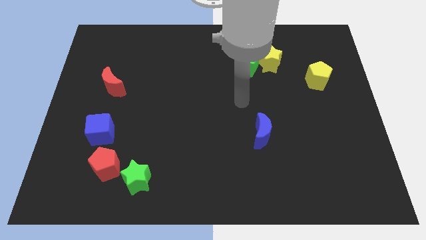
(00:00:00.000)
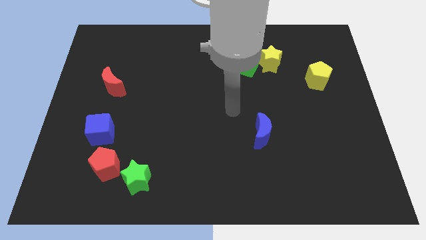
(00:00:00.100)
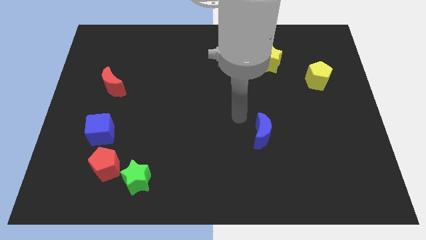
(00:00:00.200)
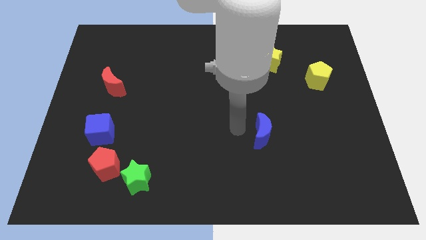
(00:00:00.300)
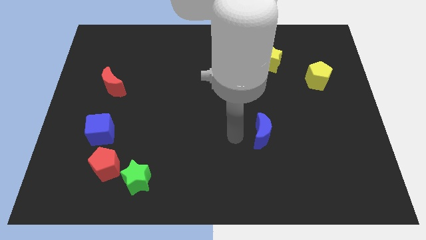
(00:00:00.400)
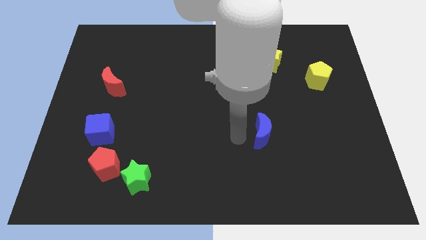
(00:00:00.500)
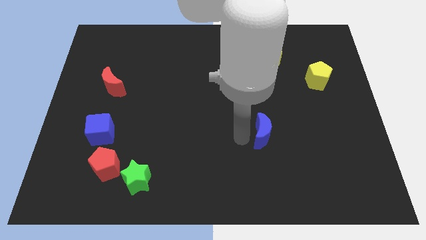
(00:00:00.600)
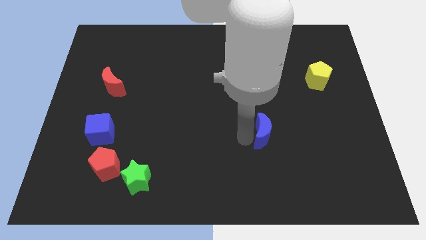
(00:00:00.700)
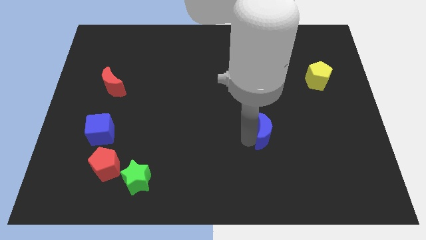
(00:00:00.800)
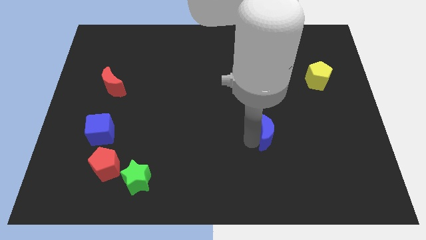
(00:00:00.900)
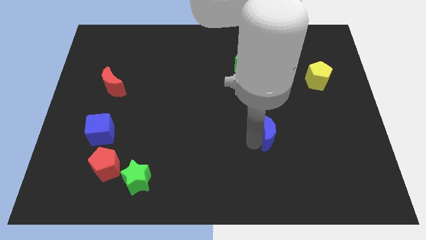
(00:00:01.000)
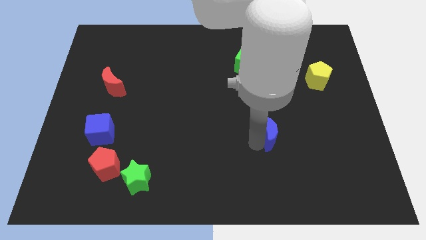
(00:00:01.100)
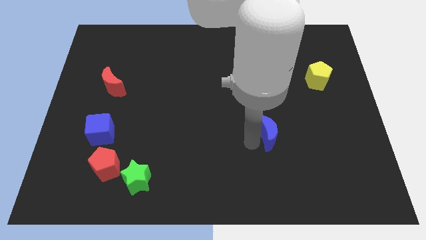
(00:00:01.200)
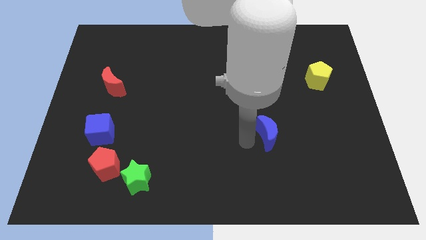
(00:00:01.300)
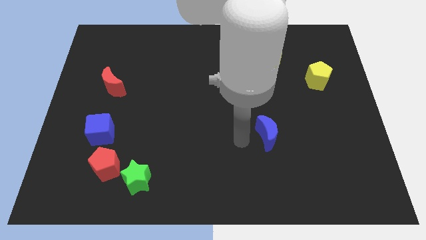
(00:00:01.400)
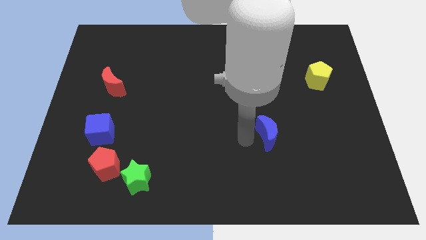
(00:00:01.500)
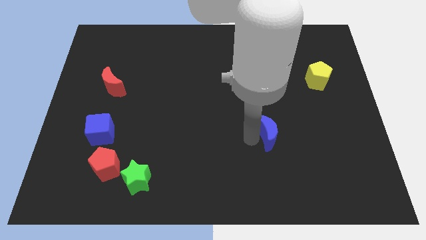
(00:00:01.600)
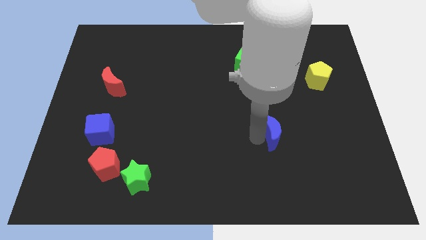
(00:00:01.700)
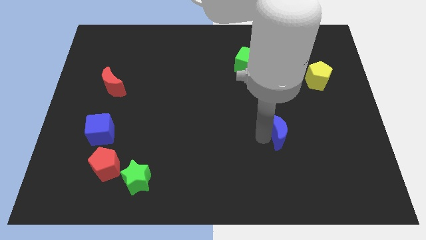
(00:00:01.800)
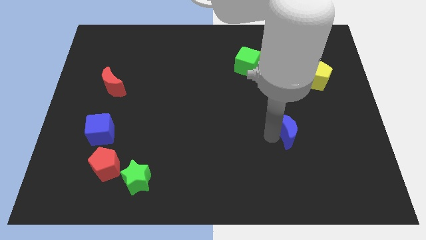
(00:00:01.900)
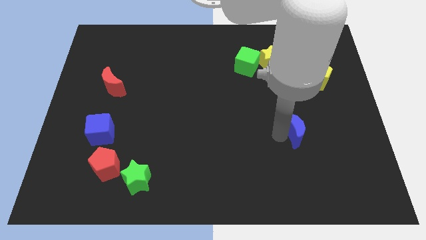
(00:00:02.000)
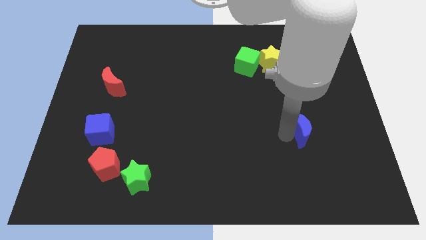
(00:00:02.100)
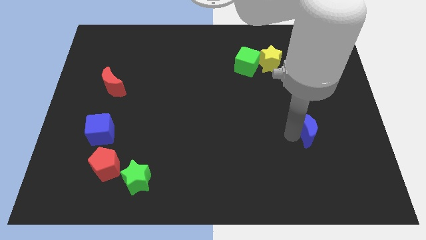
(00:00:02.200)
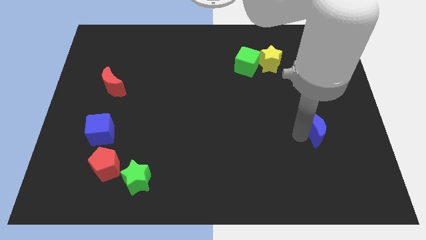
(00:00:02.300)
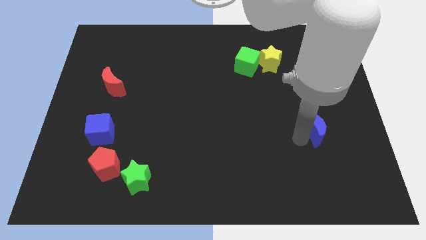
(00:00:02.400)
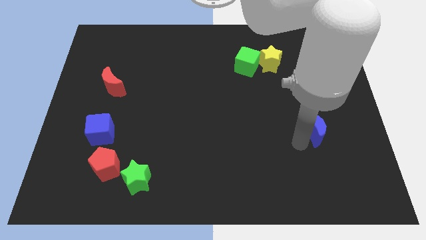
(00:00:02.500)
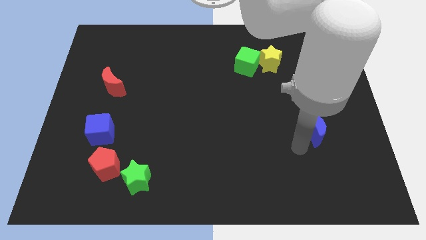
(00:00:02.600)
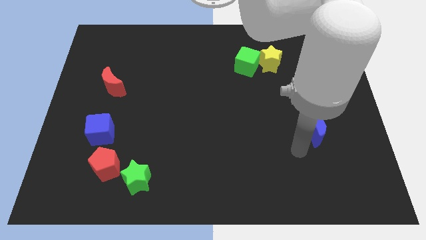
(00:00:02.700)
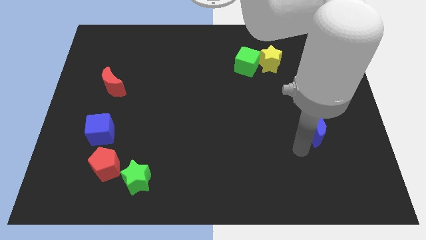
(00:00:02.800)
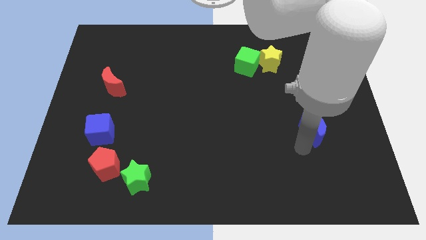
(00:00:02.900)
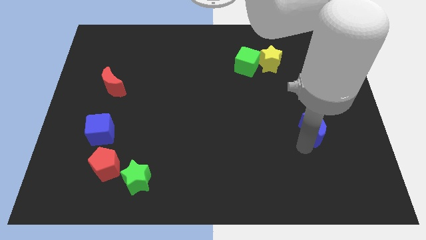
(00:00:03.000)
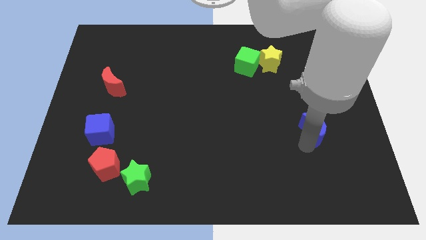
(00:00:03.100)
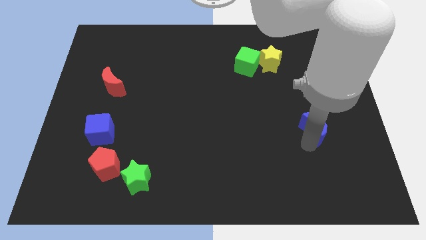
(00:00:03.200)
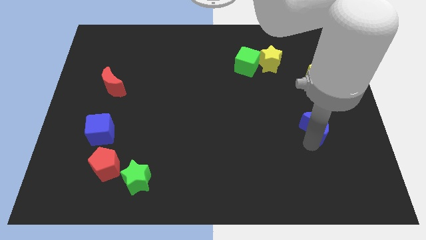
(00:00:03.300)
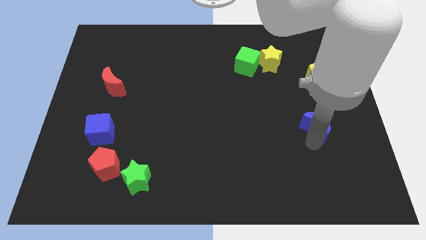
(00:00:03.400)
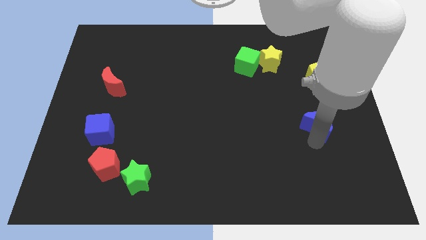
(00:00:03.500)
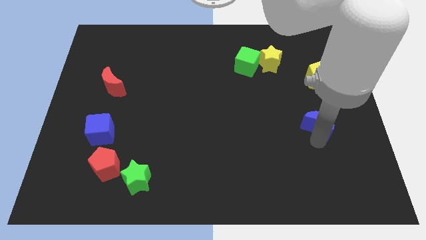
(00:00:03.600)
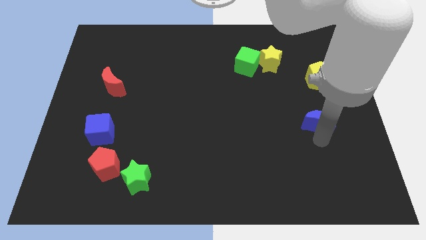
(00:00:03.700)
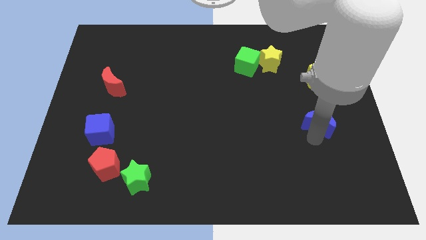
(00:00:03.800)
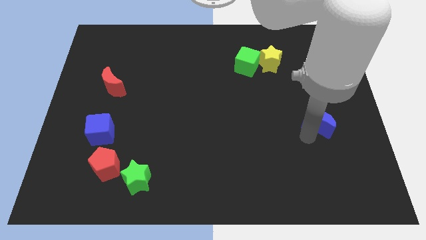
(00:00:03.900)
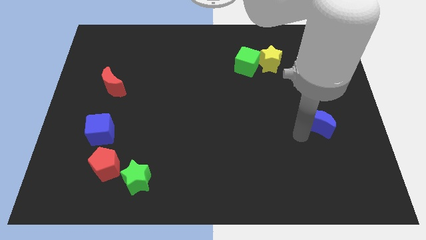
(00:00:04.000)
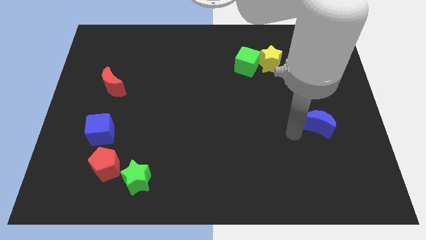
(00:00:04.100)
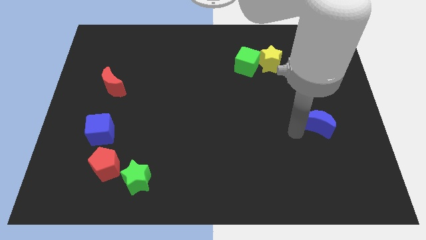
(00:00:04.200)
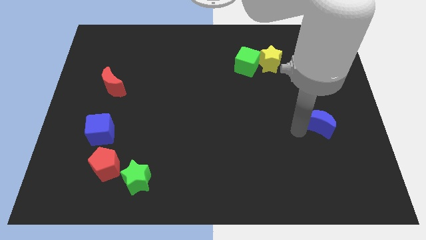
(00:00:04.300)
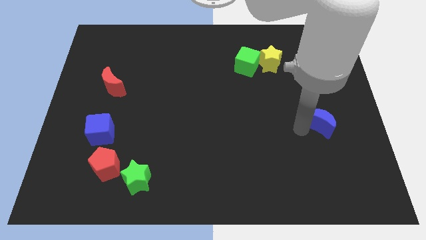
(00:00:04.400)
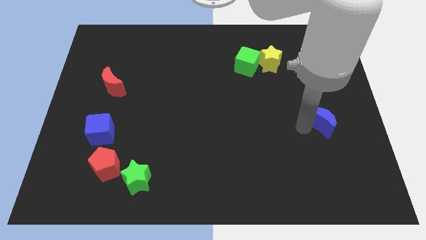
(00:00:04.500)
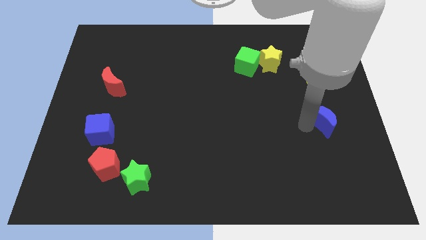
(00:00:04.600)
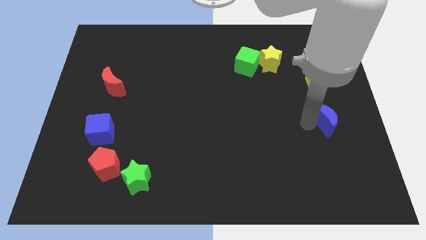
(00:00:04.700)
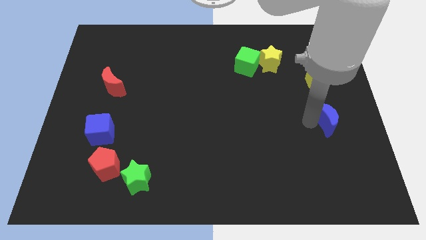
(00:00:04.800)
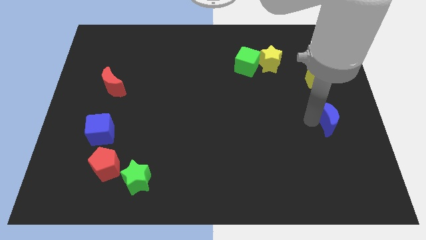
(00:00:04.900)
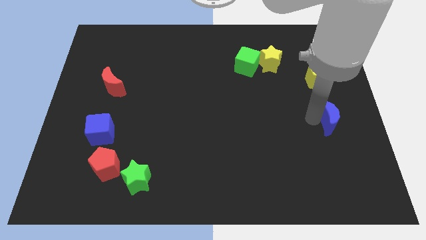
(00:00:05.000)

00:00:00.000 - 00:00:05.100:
move the blue moon to the center right

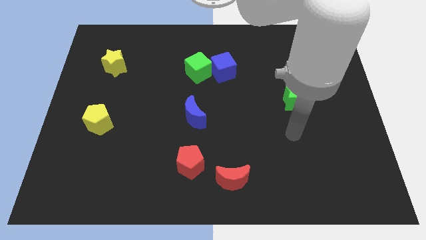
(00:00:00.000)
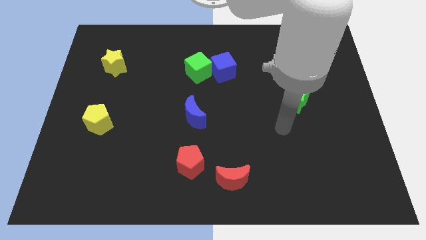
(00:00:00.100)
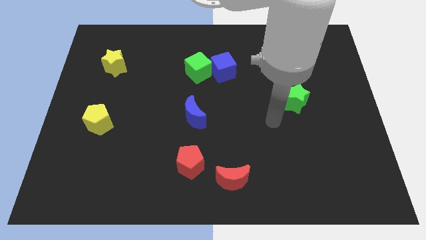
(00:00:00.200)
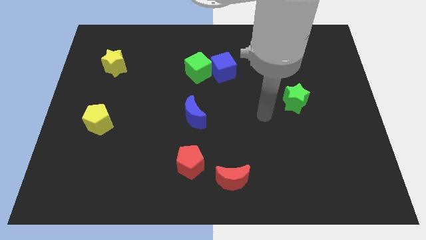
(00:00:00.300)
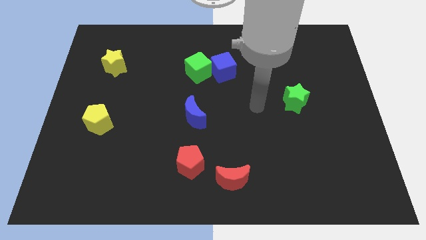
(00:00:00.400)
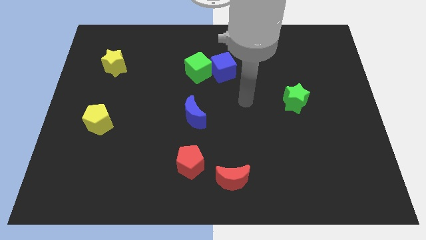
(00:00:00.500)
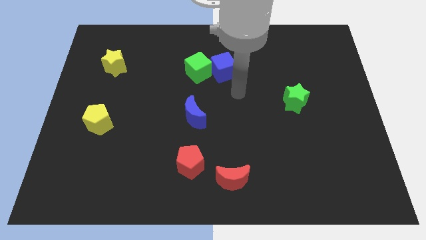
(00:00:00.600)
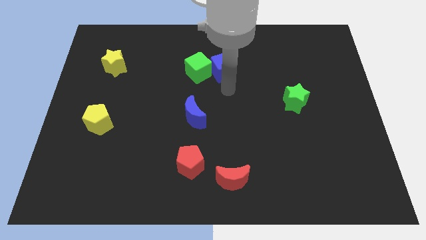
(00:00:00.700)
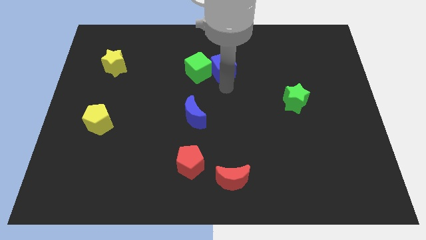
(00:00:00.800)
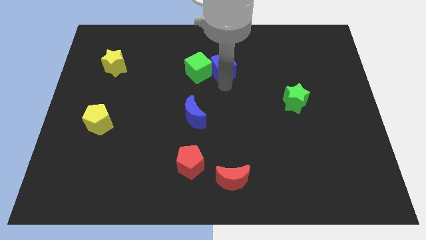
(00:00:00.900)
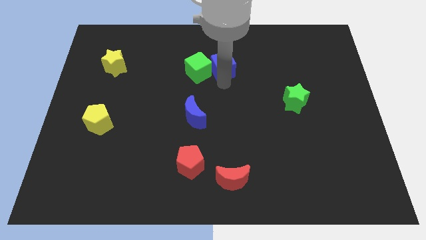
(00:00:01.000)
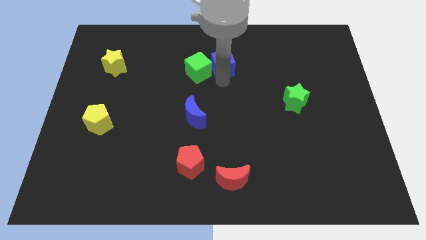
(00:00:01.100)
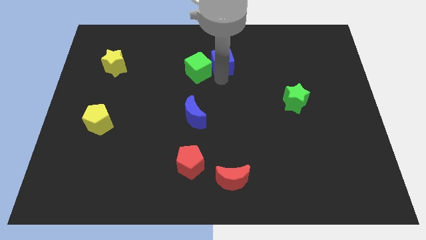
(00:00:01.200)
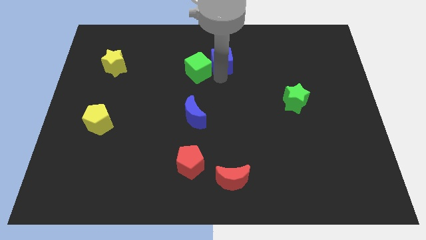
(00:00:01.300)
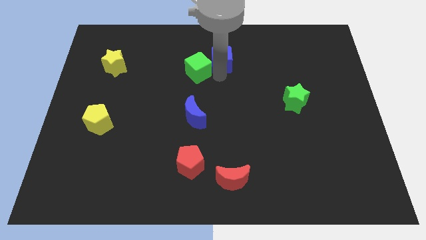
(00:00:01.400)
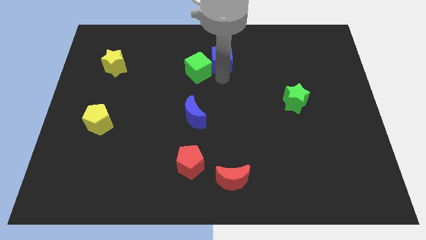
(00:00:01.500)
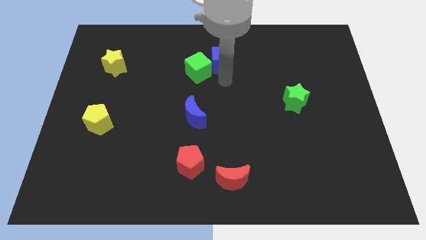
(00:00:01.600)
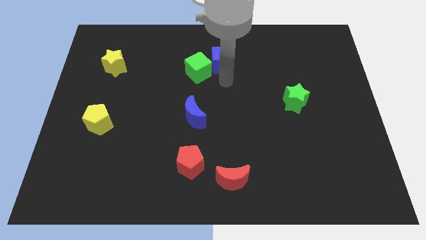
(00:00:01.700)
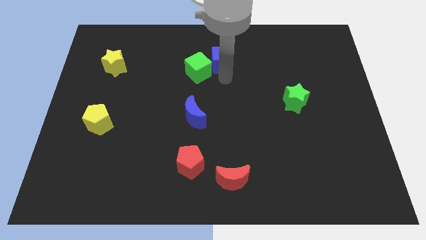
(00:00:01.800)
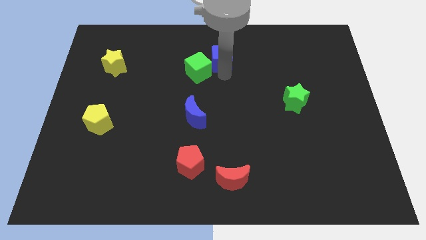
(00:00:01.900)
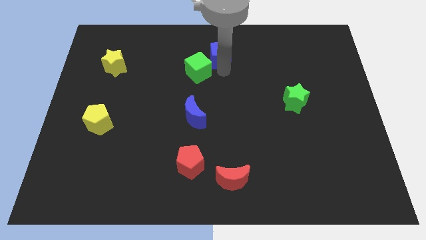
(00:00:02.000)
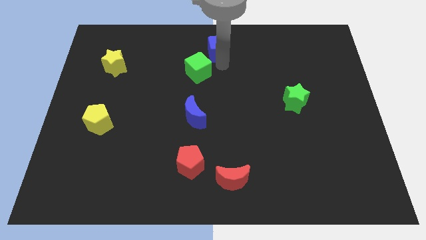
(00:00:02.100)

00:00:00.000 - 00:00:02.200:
move the blue cube to the top
